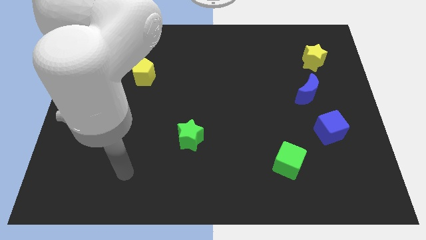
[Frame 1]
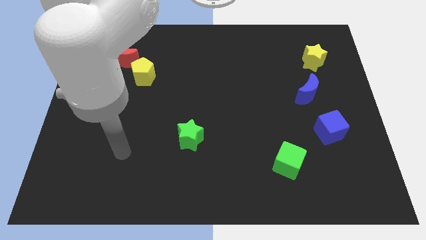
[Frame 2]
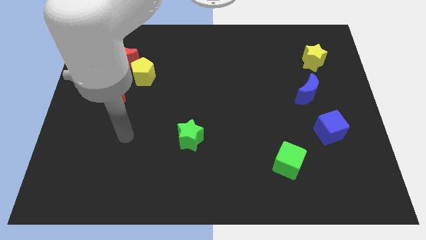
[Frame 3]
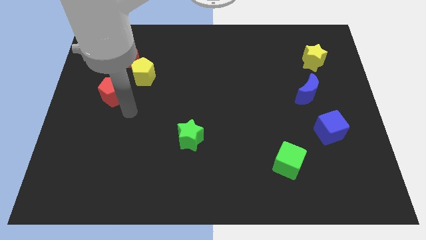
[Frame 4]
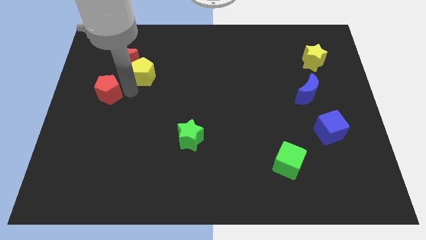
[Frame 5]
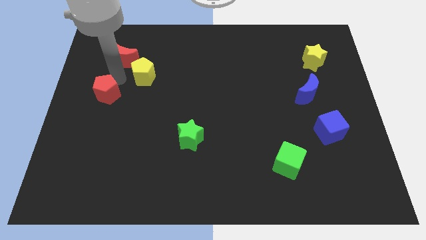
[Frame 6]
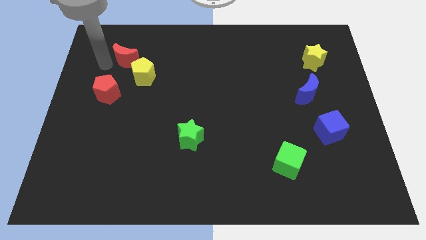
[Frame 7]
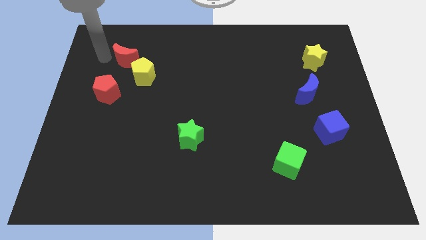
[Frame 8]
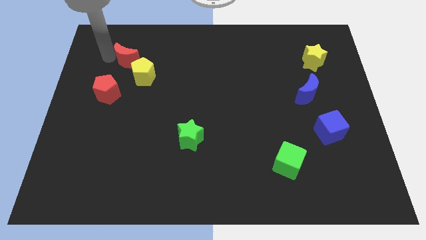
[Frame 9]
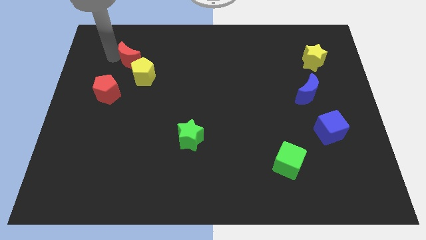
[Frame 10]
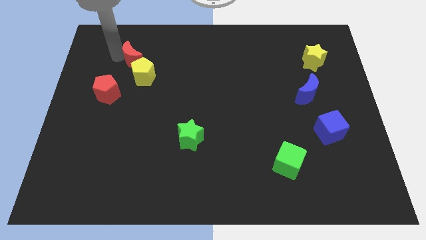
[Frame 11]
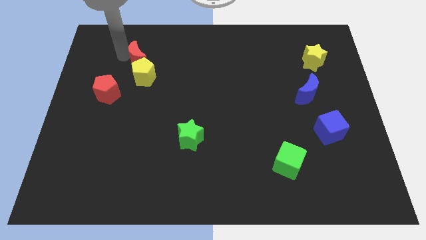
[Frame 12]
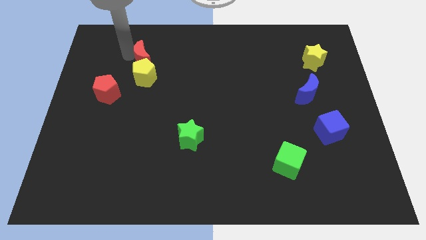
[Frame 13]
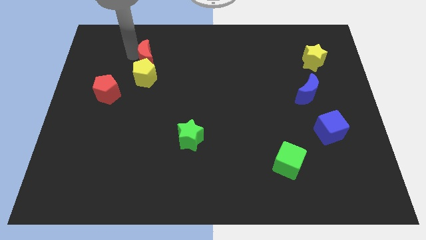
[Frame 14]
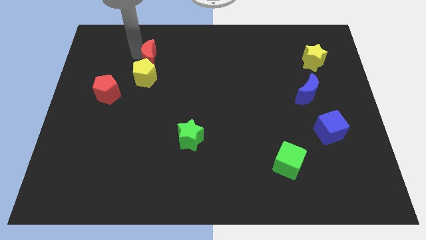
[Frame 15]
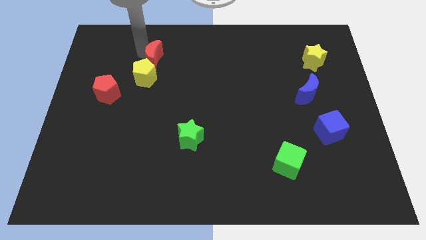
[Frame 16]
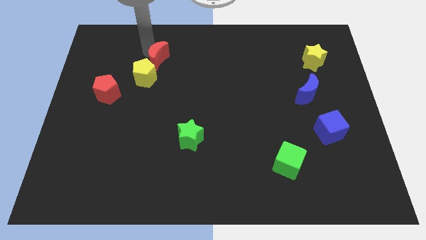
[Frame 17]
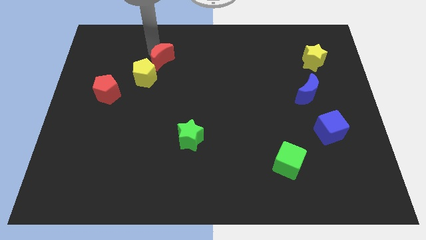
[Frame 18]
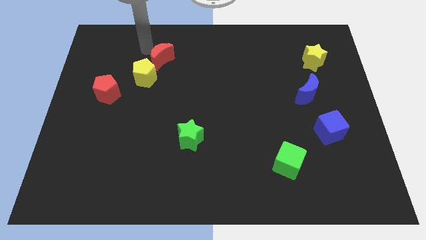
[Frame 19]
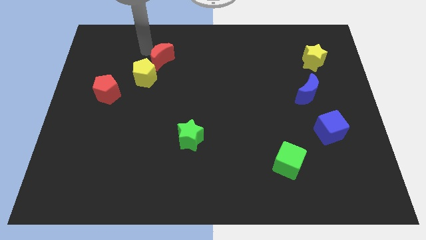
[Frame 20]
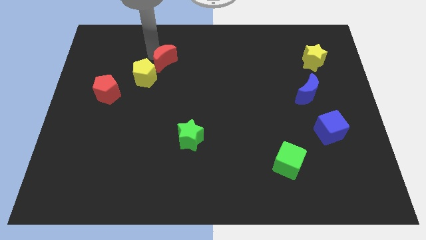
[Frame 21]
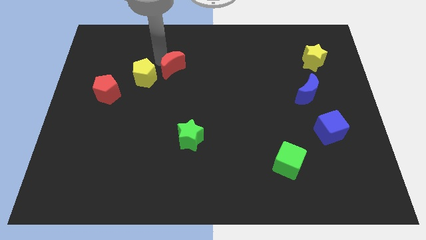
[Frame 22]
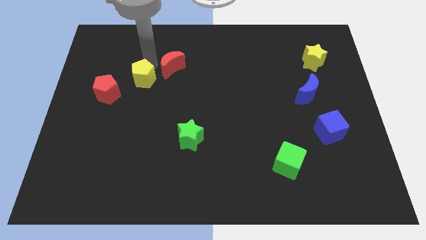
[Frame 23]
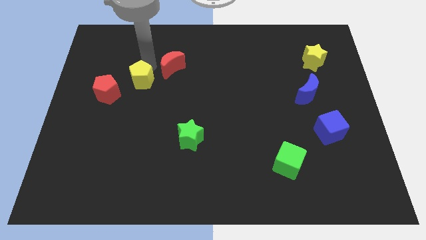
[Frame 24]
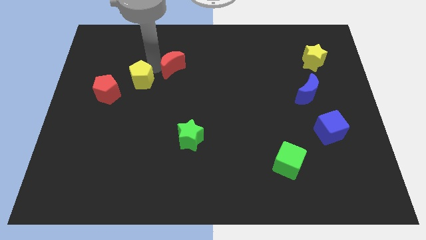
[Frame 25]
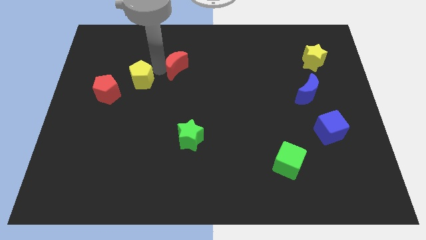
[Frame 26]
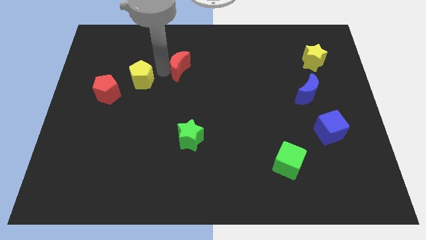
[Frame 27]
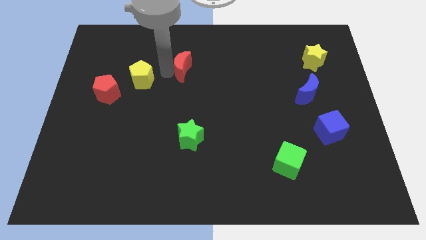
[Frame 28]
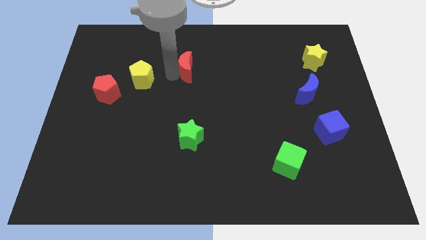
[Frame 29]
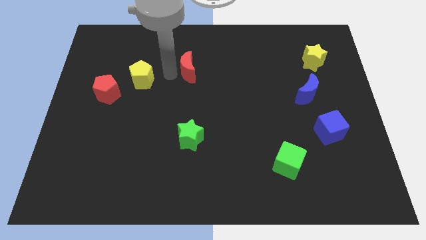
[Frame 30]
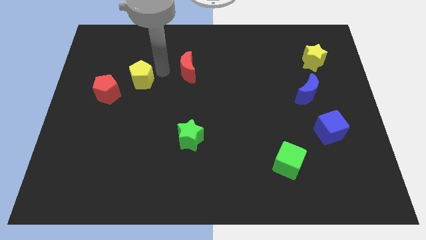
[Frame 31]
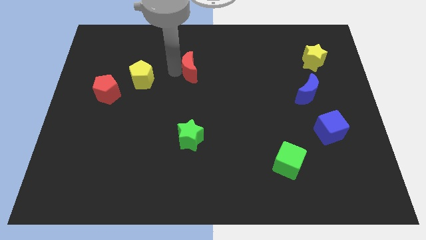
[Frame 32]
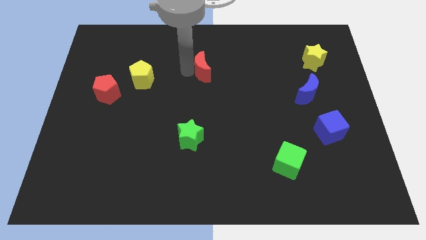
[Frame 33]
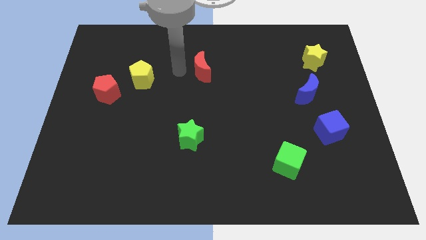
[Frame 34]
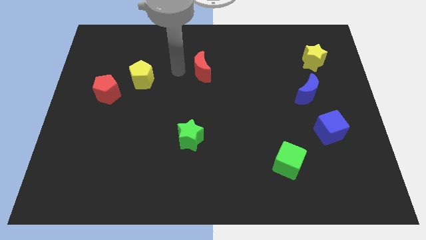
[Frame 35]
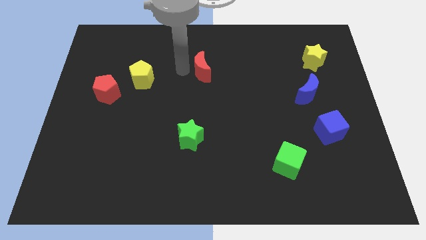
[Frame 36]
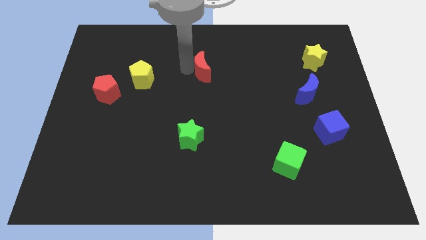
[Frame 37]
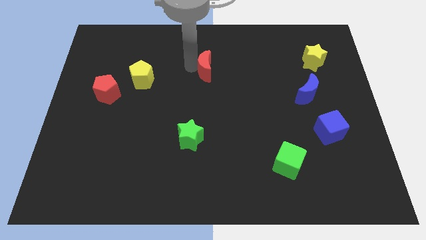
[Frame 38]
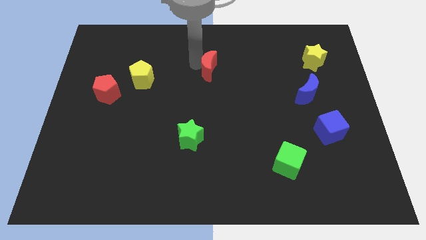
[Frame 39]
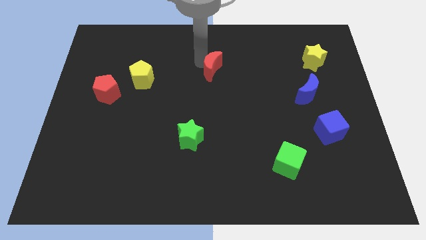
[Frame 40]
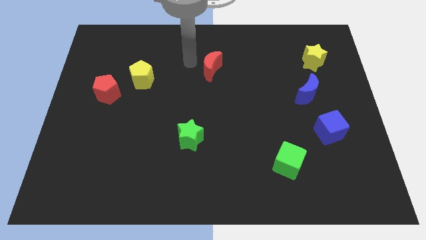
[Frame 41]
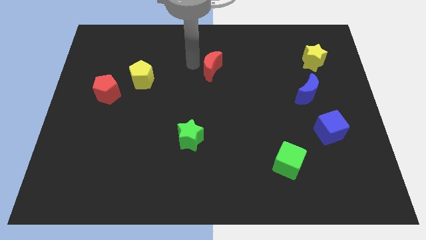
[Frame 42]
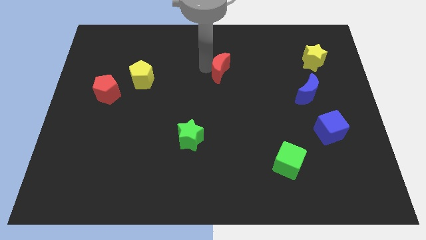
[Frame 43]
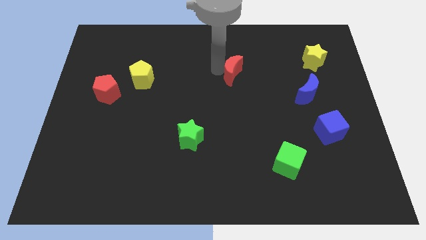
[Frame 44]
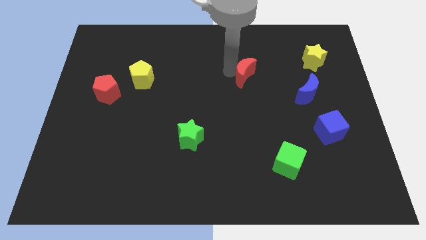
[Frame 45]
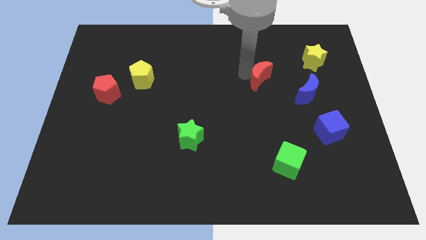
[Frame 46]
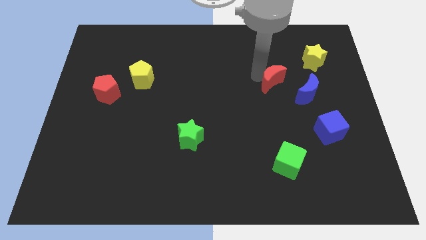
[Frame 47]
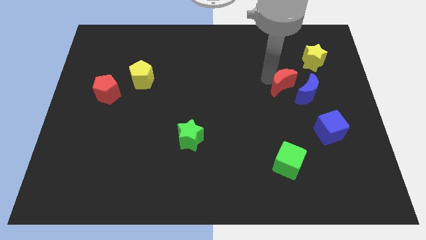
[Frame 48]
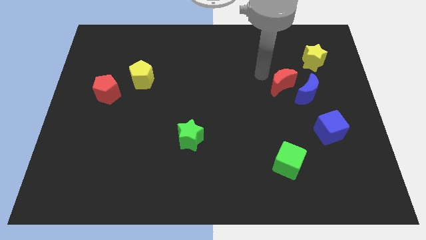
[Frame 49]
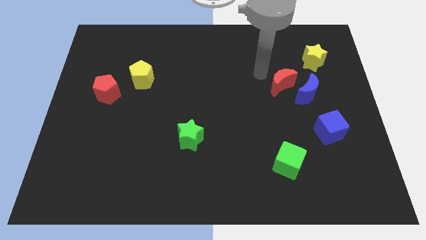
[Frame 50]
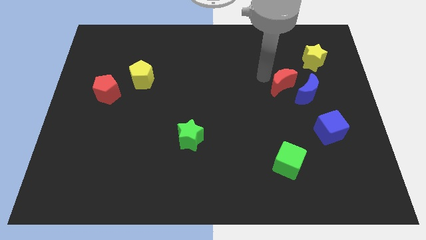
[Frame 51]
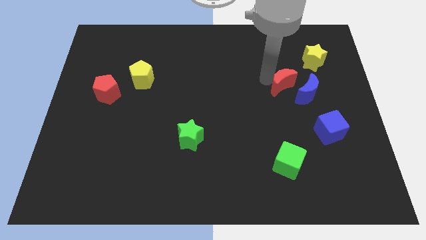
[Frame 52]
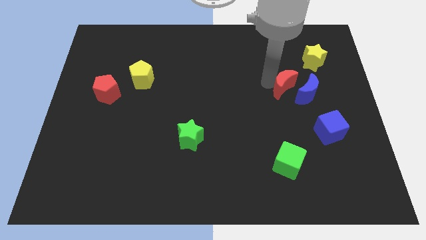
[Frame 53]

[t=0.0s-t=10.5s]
put the red moon next to the blue moon

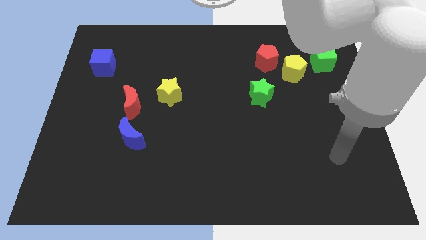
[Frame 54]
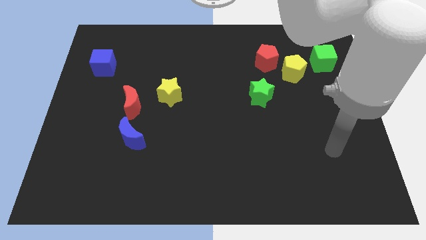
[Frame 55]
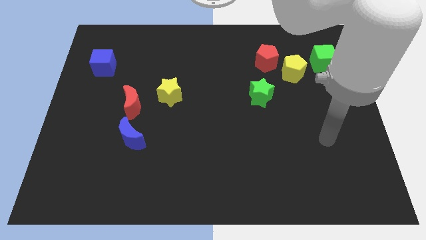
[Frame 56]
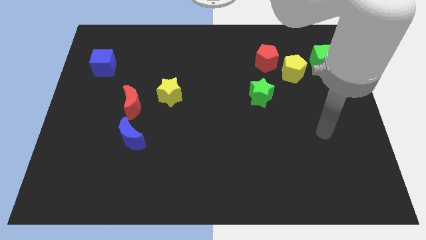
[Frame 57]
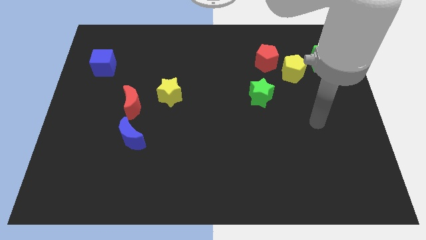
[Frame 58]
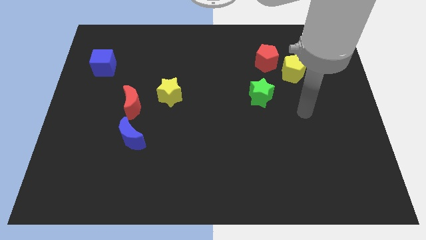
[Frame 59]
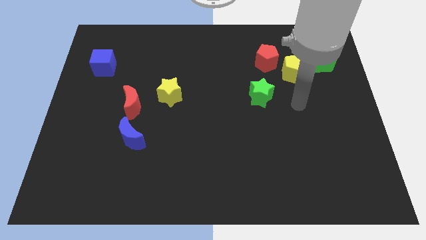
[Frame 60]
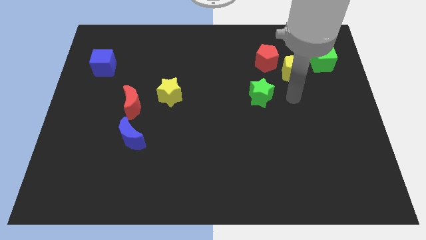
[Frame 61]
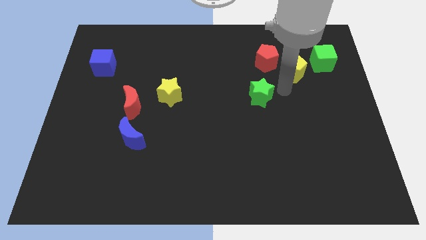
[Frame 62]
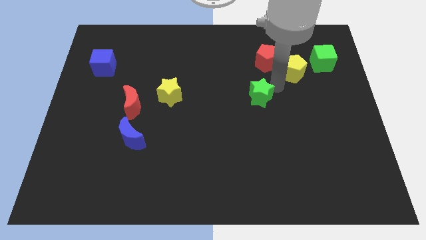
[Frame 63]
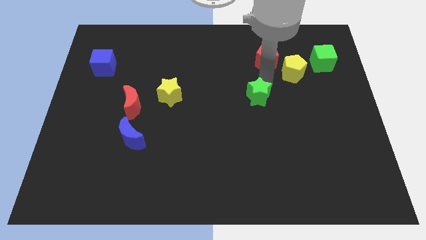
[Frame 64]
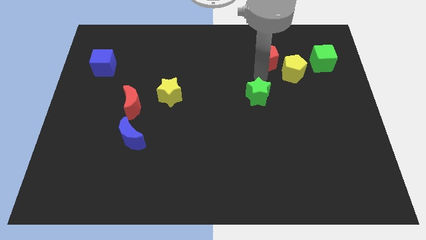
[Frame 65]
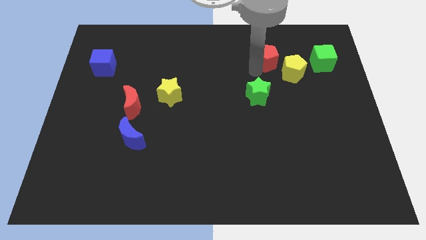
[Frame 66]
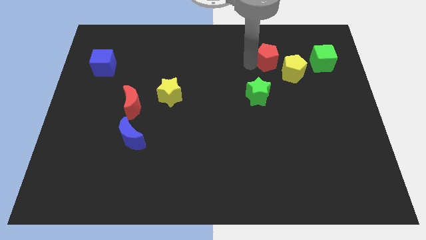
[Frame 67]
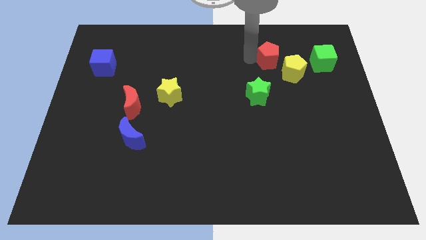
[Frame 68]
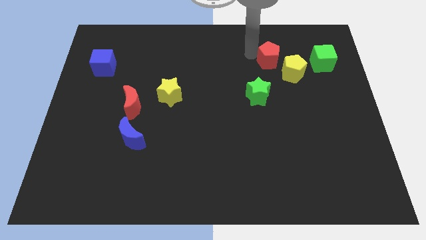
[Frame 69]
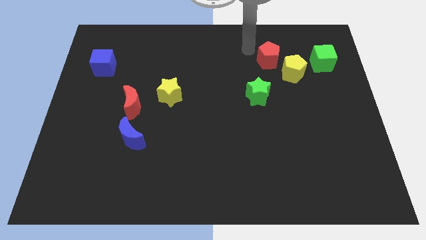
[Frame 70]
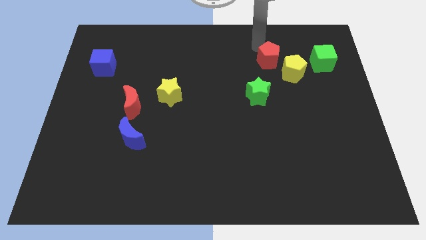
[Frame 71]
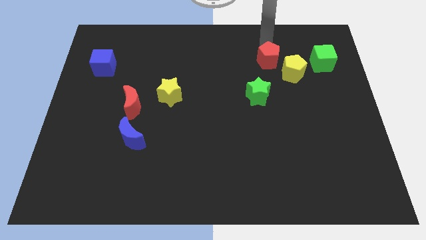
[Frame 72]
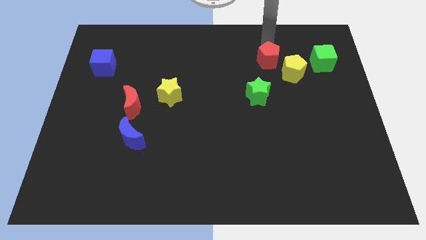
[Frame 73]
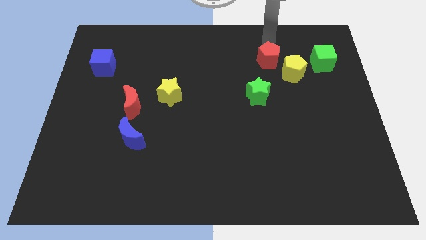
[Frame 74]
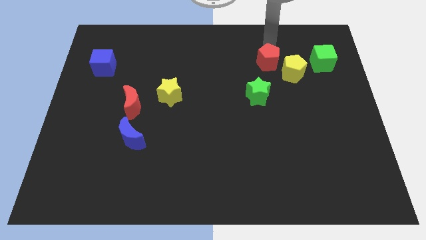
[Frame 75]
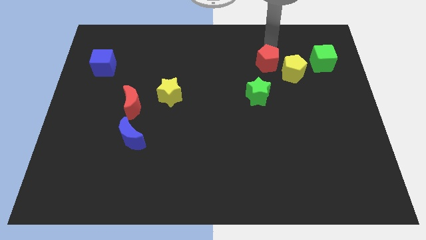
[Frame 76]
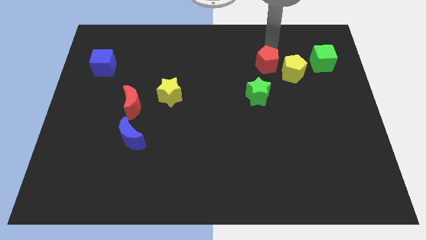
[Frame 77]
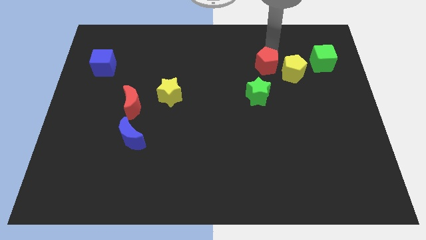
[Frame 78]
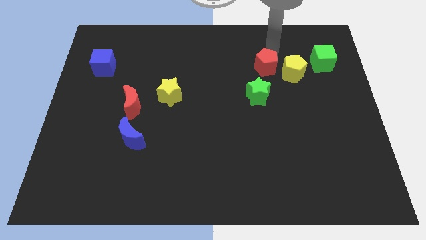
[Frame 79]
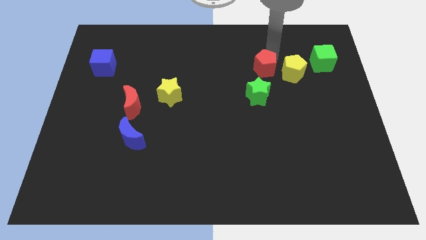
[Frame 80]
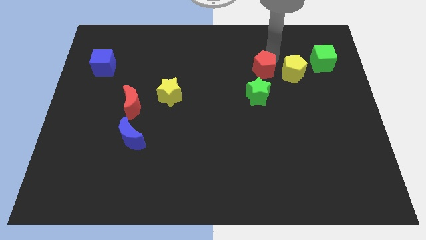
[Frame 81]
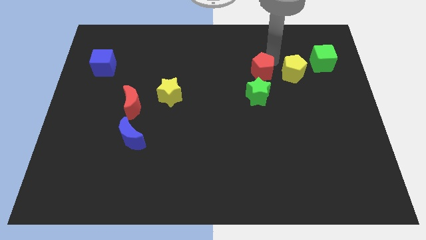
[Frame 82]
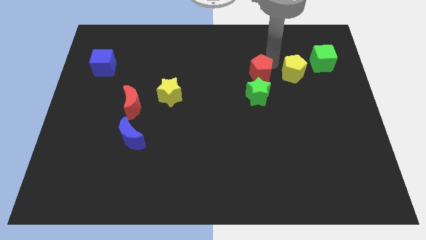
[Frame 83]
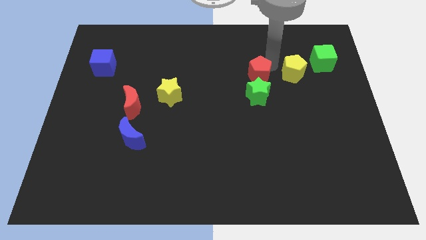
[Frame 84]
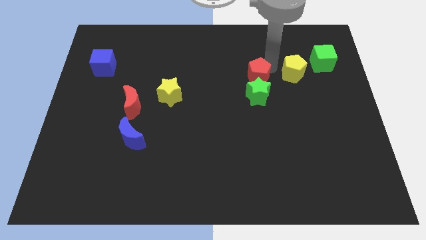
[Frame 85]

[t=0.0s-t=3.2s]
push the red pentagon to the green star
